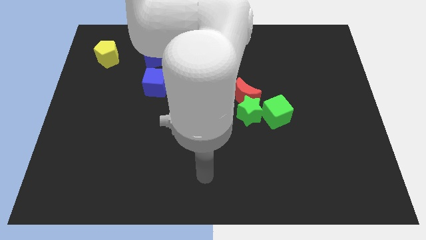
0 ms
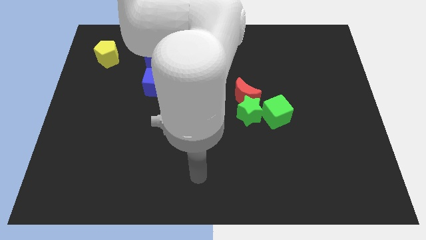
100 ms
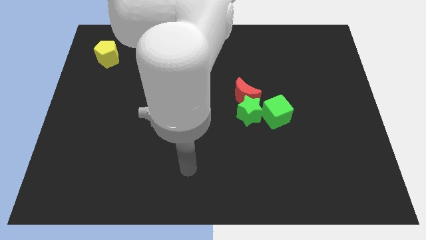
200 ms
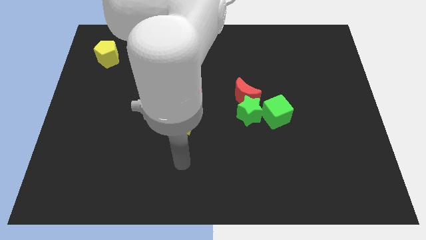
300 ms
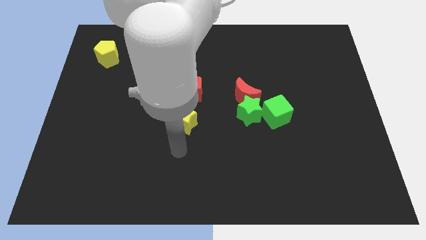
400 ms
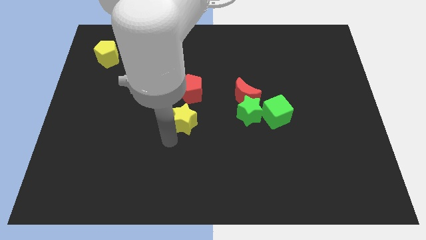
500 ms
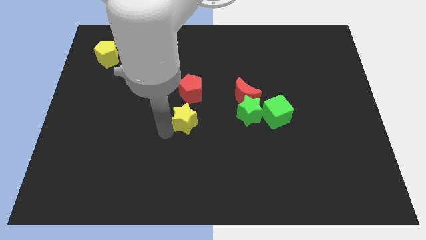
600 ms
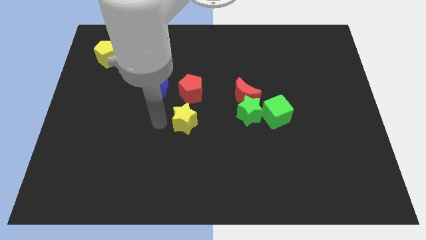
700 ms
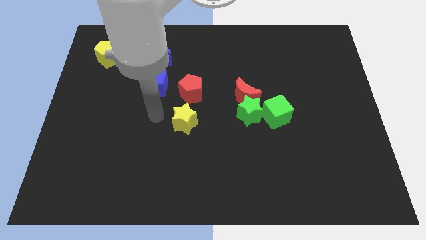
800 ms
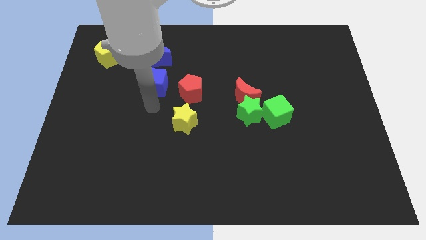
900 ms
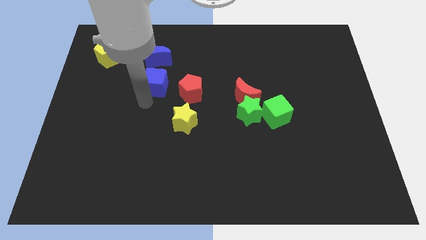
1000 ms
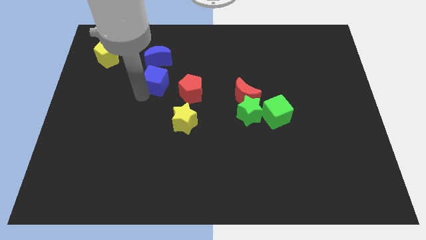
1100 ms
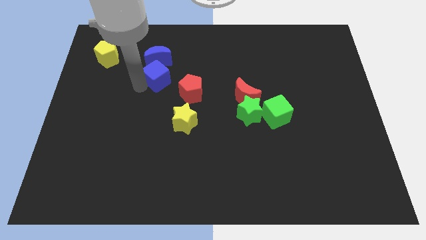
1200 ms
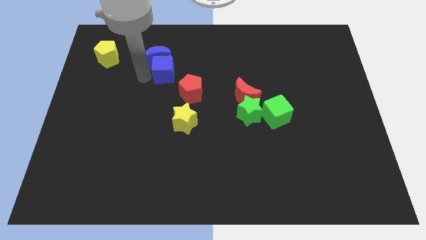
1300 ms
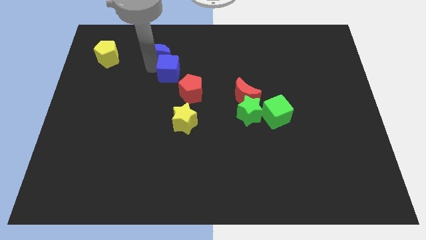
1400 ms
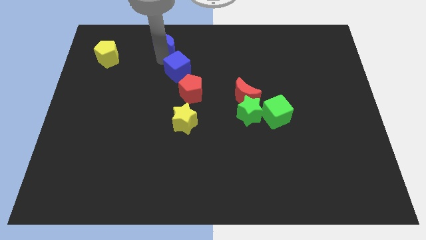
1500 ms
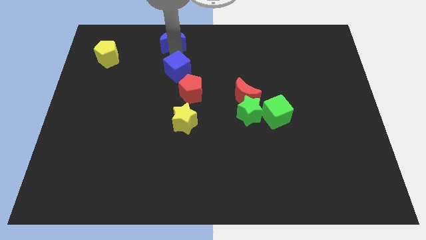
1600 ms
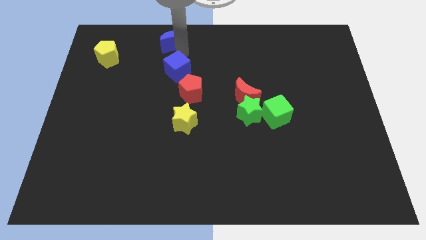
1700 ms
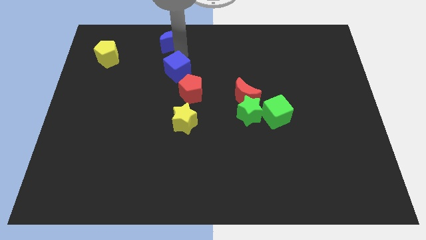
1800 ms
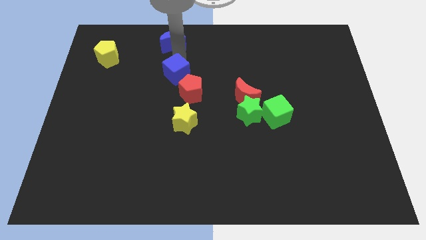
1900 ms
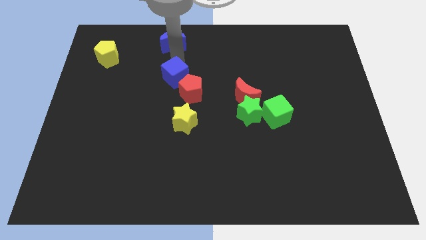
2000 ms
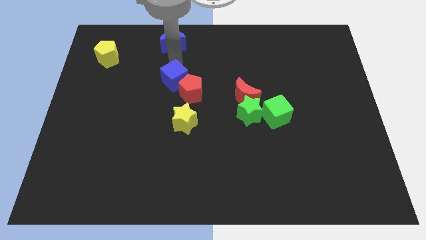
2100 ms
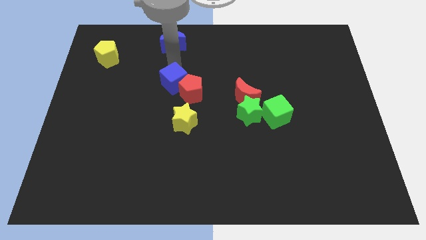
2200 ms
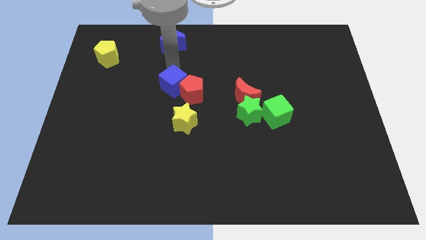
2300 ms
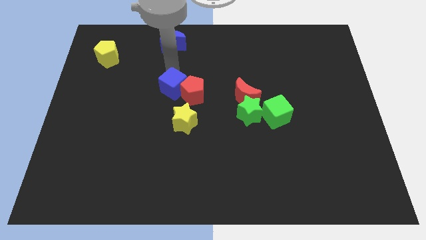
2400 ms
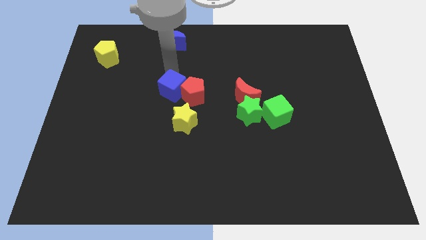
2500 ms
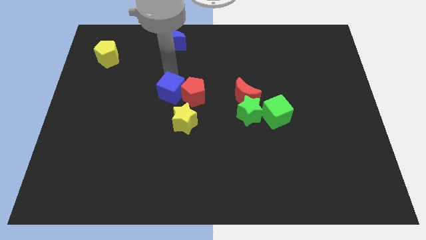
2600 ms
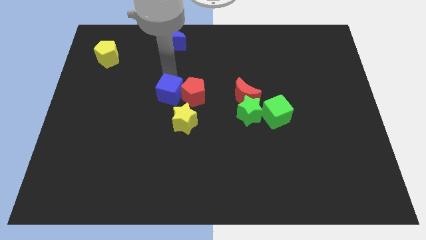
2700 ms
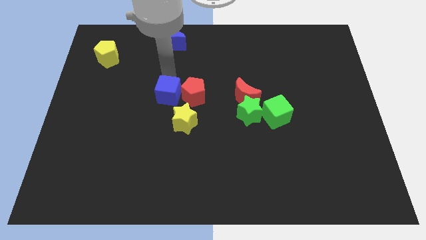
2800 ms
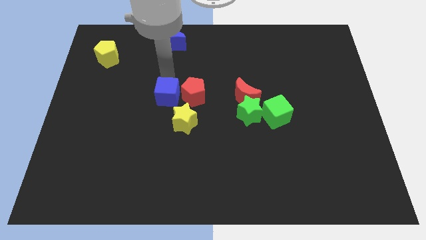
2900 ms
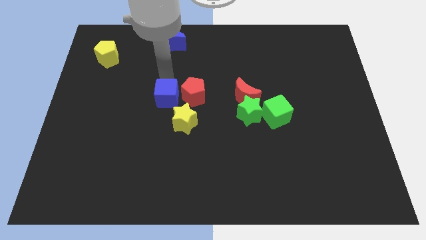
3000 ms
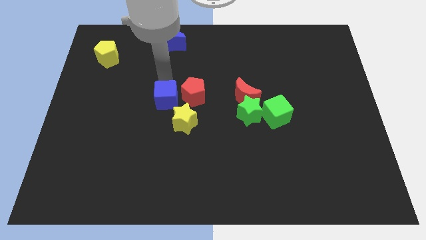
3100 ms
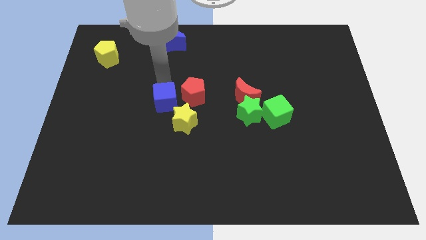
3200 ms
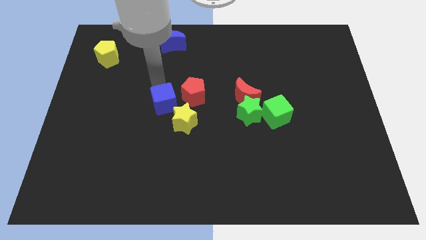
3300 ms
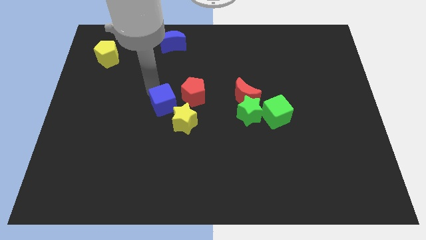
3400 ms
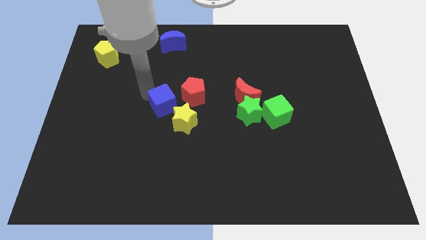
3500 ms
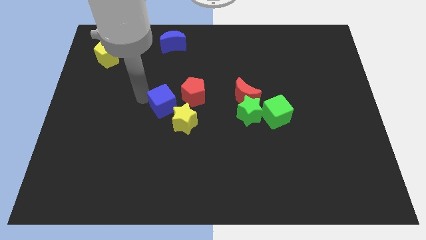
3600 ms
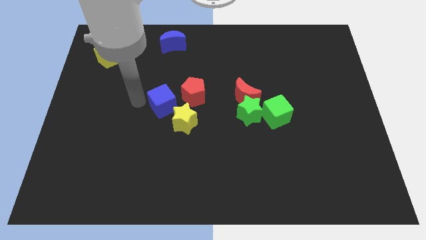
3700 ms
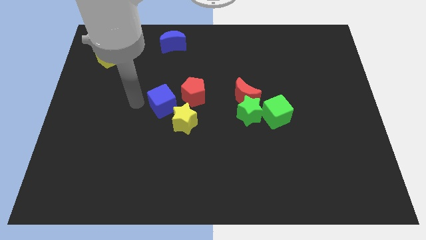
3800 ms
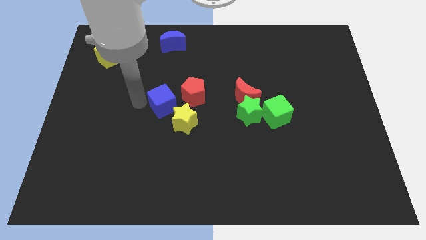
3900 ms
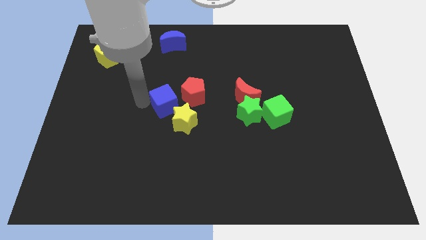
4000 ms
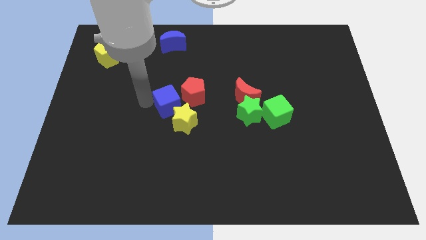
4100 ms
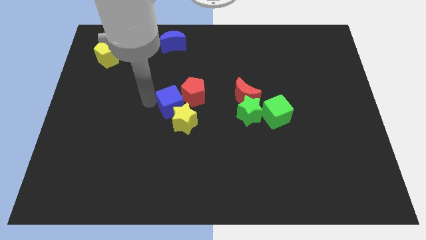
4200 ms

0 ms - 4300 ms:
move the blue cube diagonally downwards and right a little

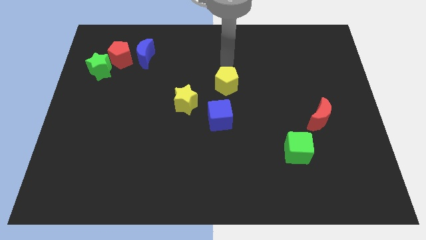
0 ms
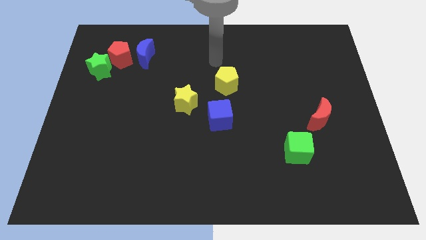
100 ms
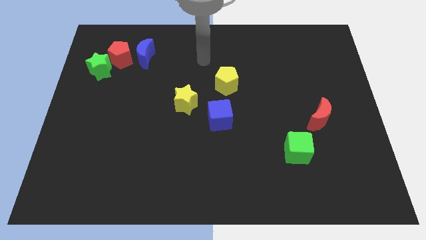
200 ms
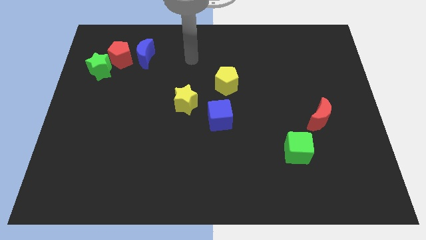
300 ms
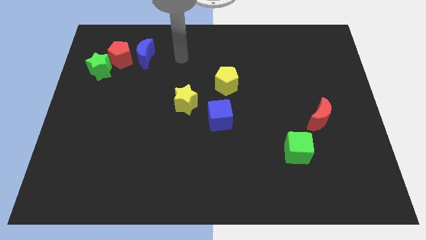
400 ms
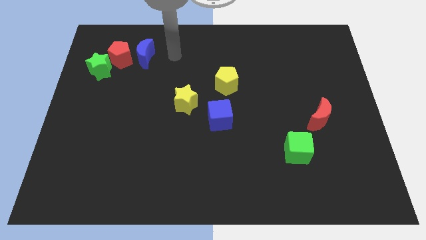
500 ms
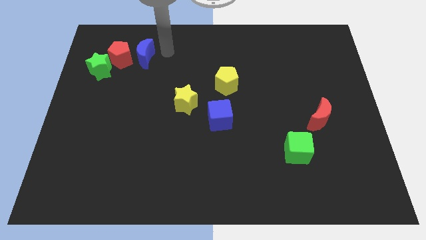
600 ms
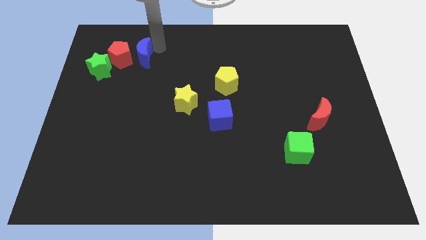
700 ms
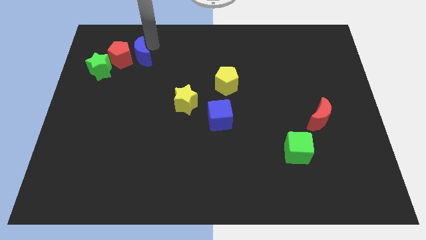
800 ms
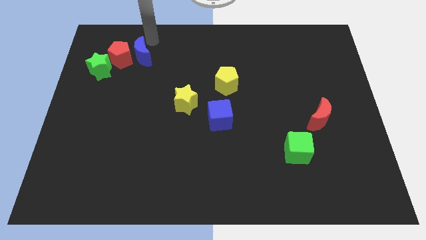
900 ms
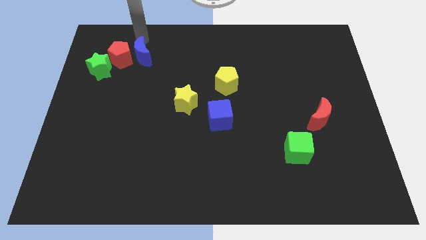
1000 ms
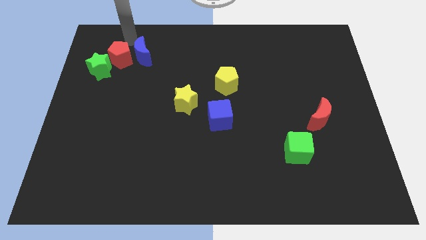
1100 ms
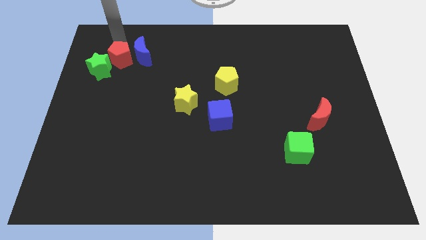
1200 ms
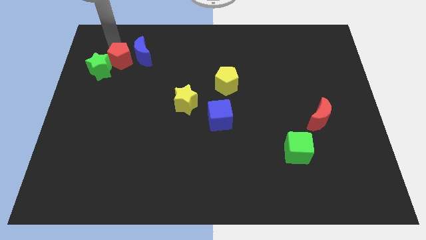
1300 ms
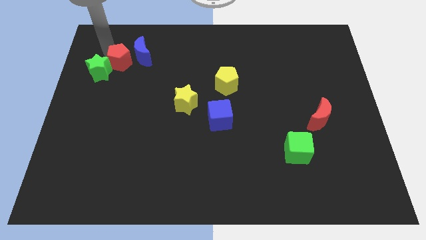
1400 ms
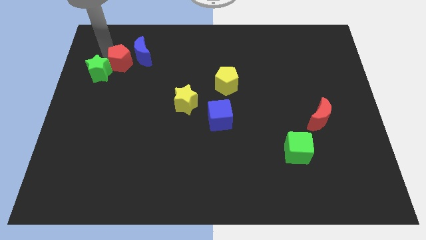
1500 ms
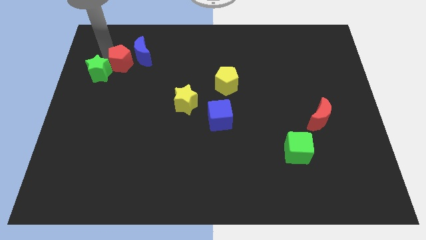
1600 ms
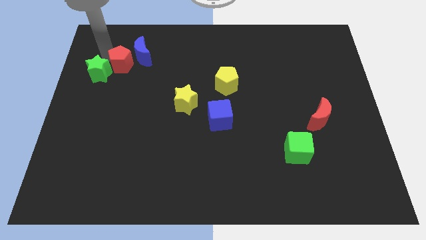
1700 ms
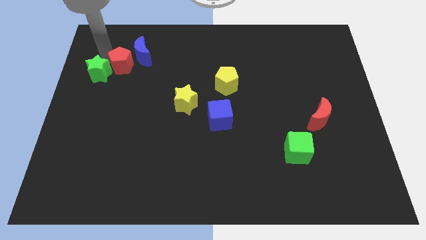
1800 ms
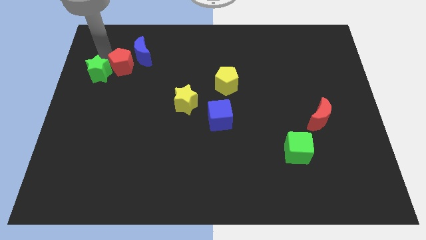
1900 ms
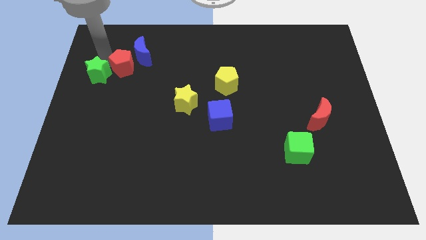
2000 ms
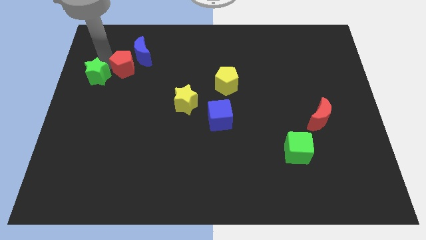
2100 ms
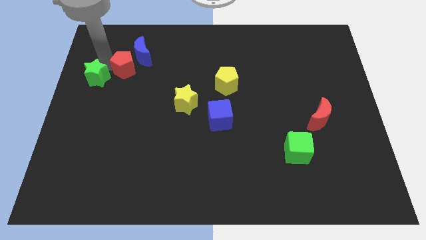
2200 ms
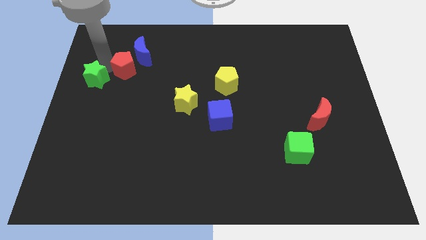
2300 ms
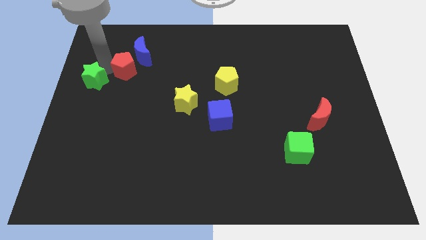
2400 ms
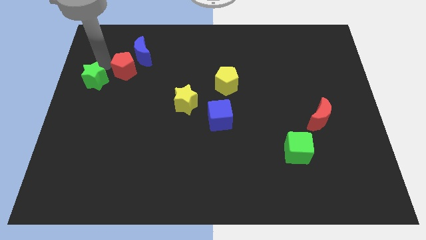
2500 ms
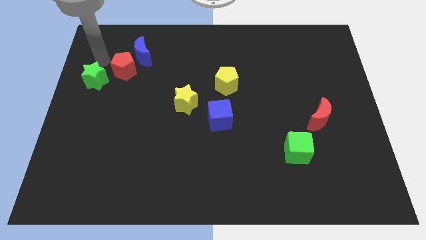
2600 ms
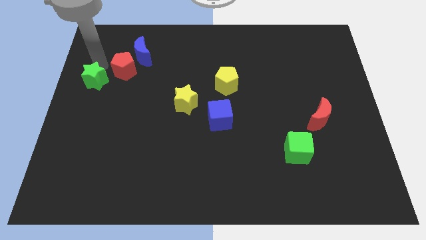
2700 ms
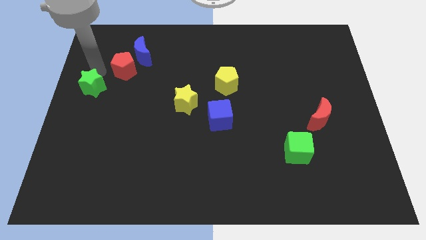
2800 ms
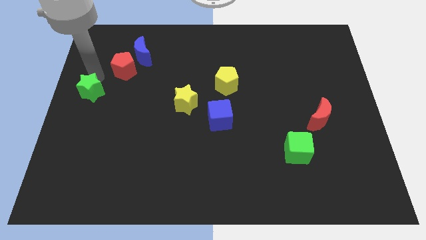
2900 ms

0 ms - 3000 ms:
slightly push the green star downwards

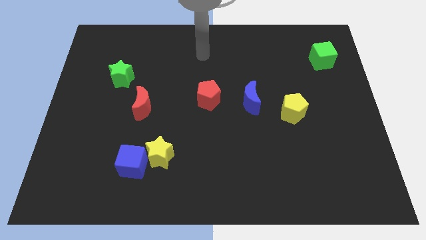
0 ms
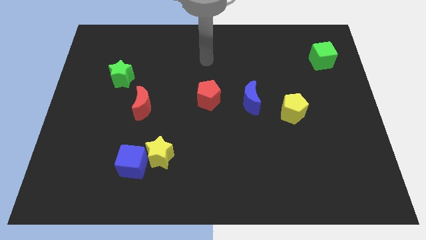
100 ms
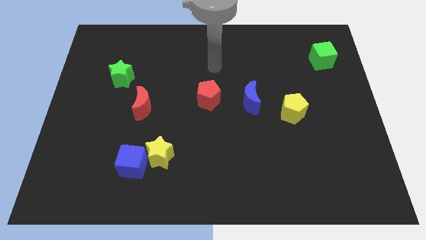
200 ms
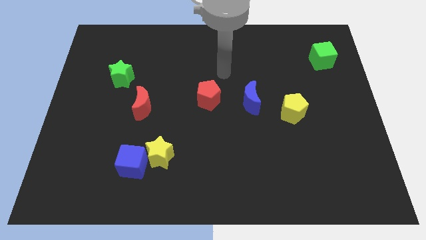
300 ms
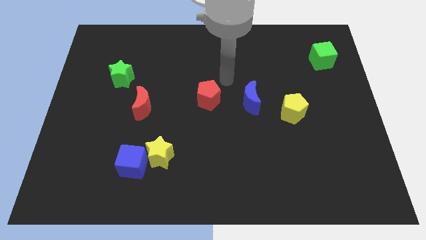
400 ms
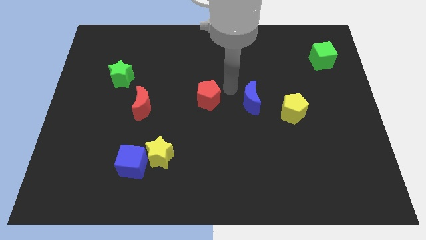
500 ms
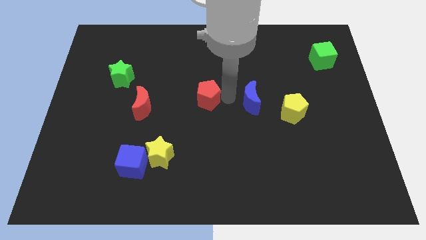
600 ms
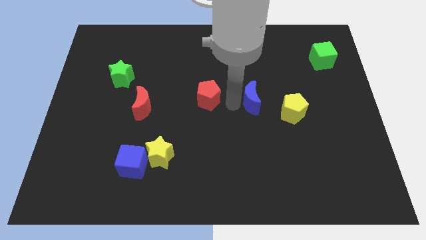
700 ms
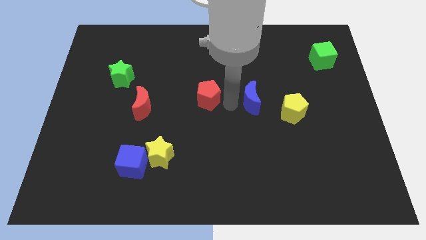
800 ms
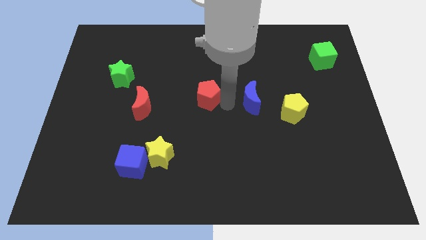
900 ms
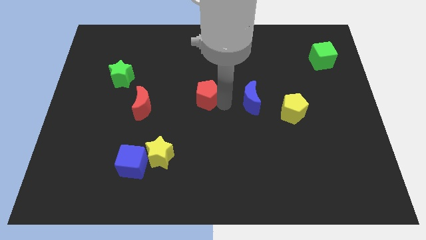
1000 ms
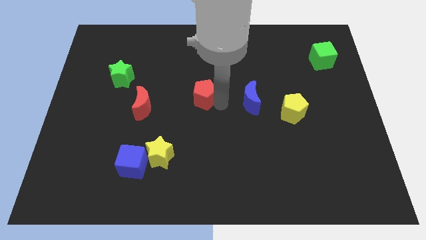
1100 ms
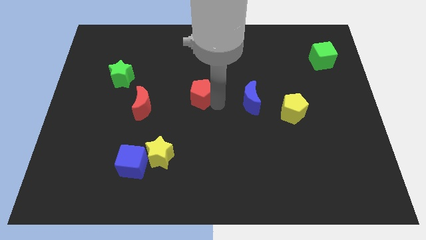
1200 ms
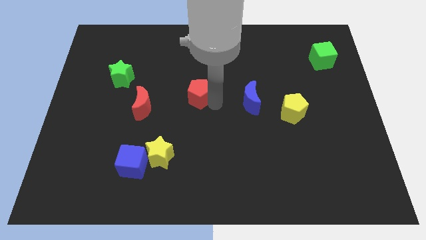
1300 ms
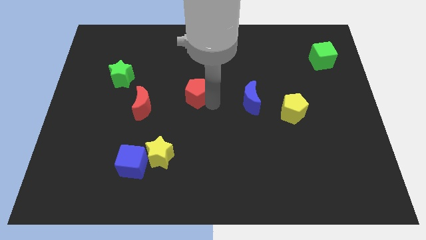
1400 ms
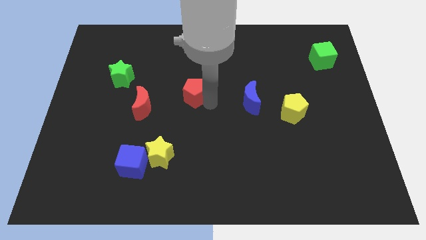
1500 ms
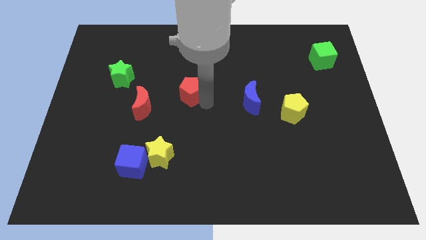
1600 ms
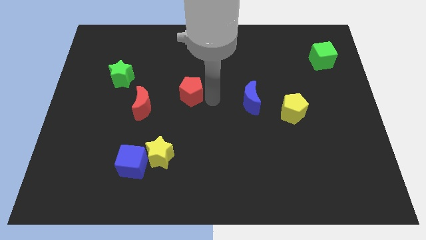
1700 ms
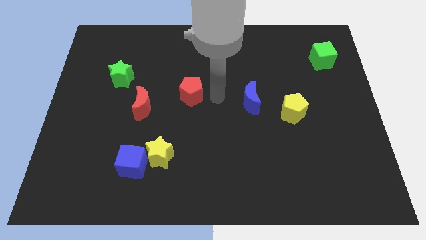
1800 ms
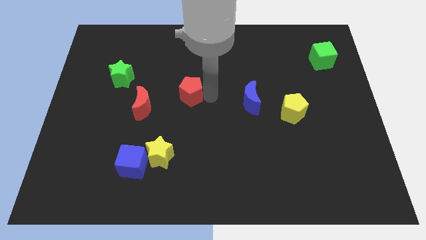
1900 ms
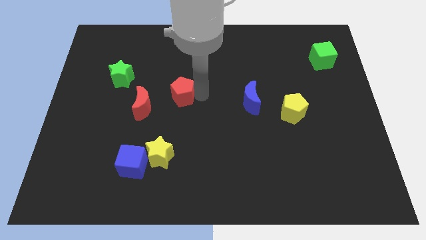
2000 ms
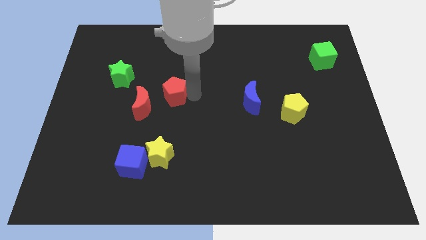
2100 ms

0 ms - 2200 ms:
push the red pentagon to the left somewhat
